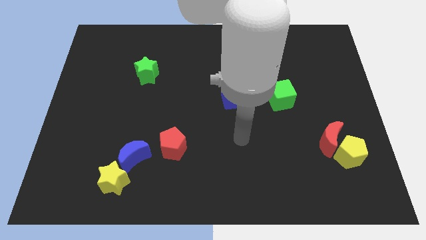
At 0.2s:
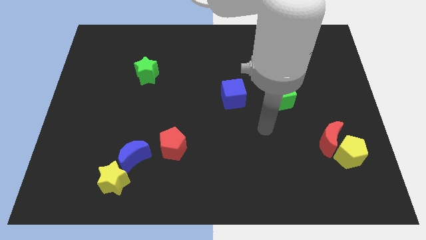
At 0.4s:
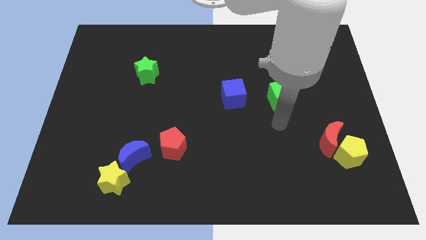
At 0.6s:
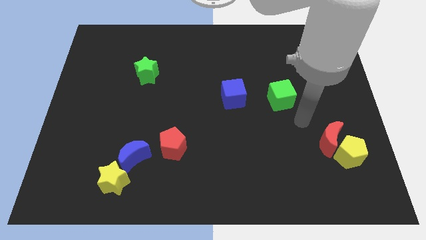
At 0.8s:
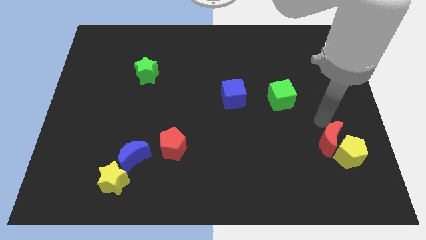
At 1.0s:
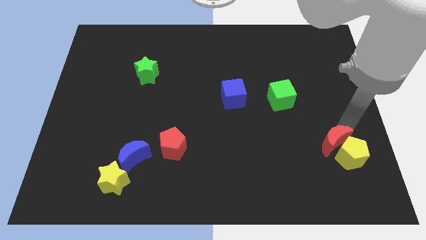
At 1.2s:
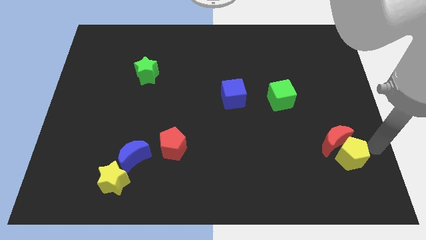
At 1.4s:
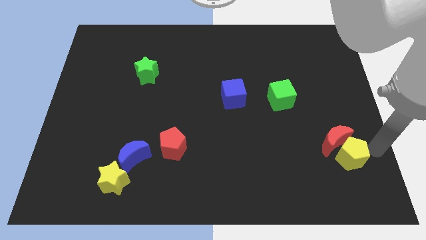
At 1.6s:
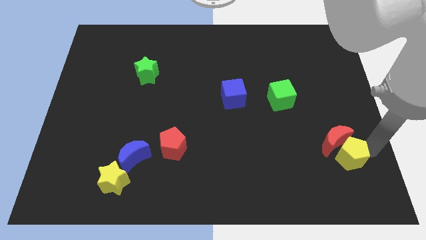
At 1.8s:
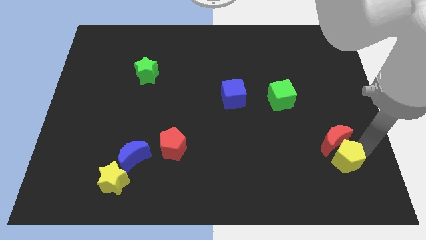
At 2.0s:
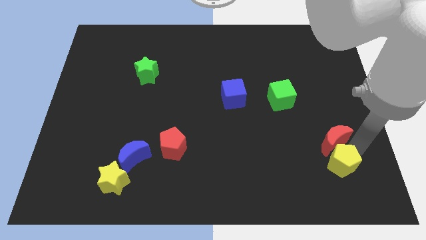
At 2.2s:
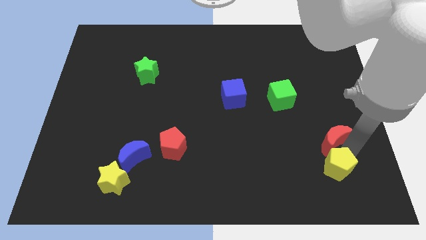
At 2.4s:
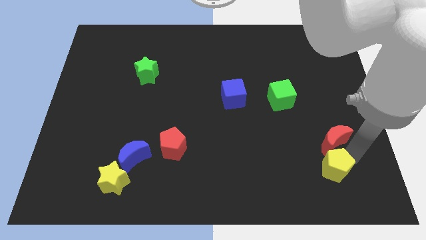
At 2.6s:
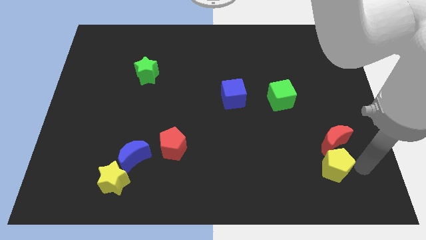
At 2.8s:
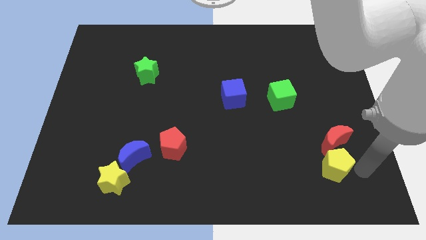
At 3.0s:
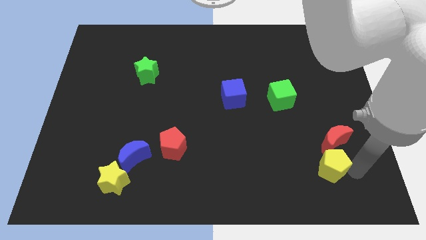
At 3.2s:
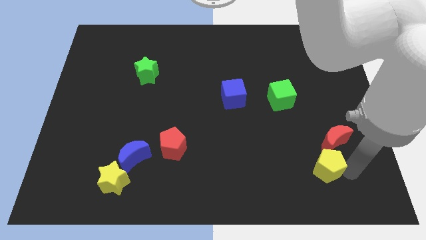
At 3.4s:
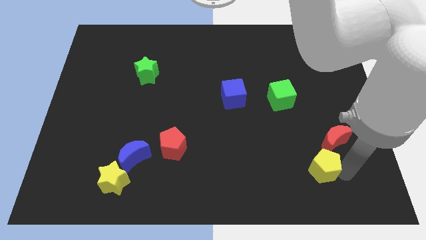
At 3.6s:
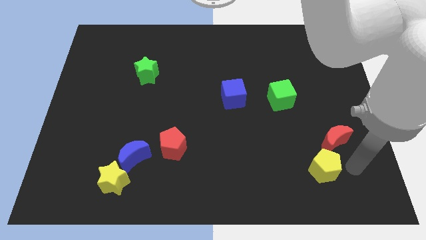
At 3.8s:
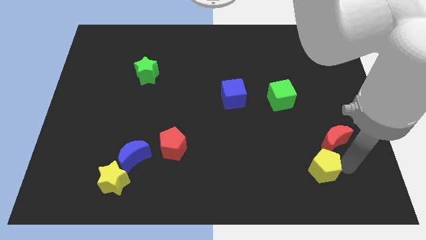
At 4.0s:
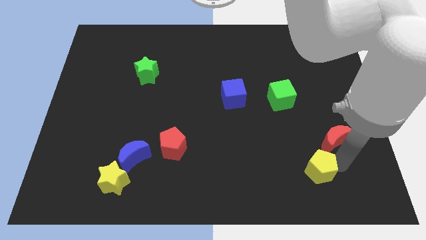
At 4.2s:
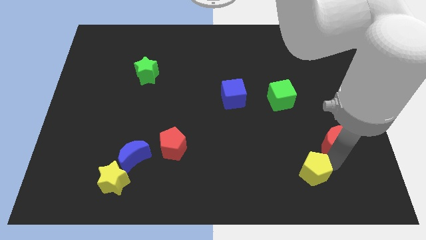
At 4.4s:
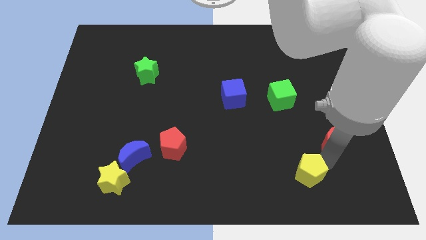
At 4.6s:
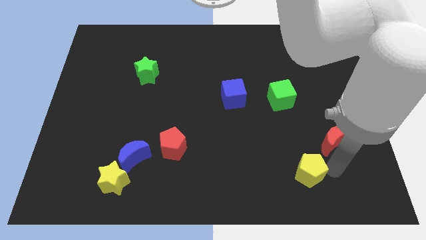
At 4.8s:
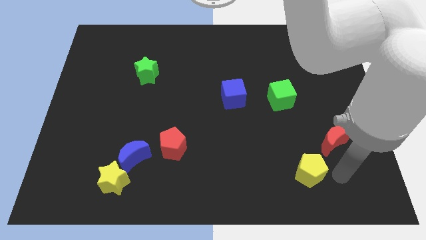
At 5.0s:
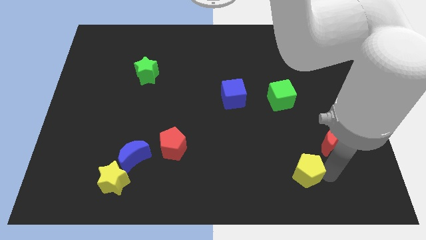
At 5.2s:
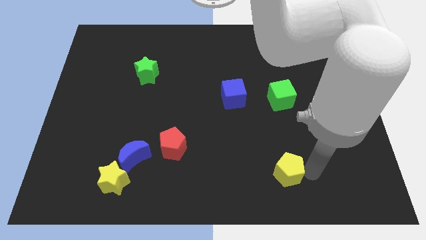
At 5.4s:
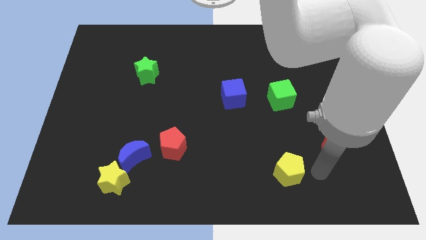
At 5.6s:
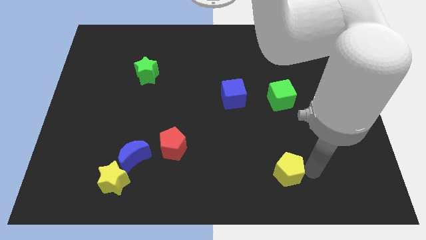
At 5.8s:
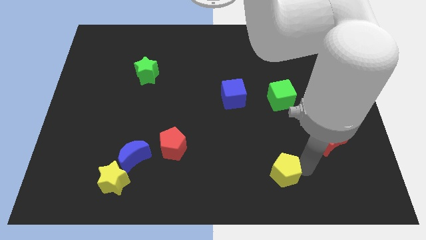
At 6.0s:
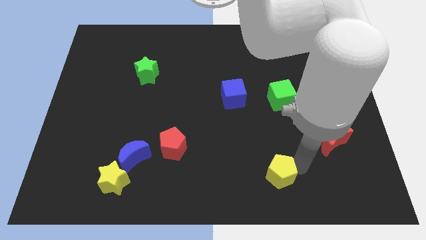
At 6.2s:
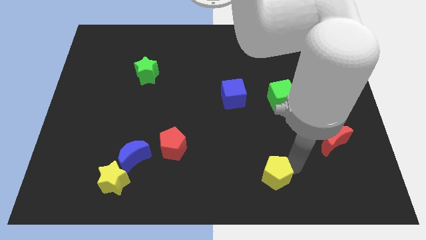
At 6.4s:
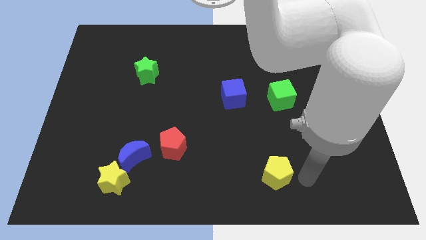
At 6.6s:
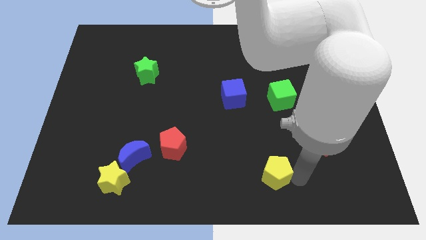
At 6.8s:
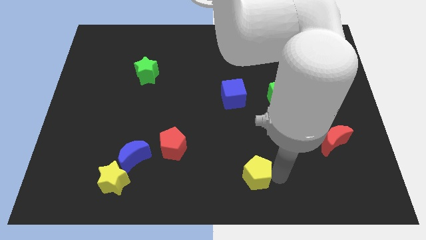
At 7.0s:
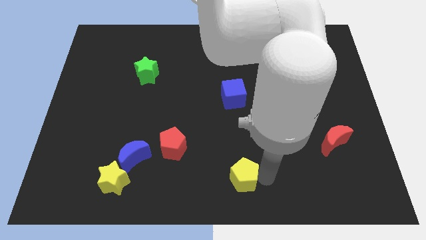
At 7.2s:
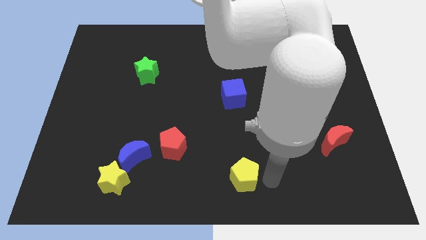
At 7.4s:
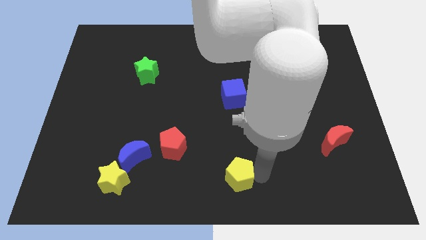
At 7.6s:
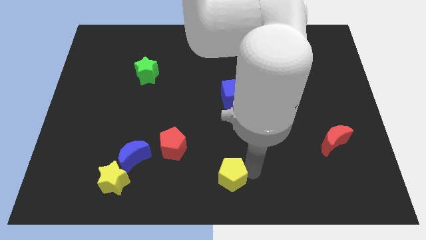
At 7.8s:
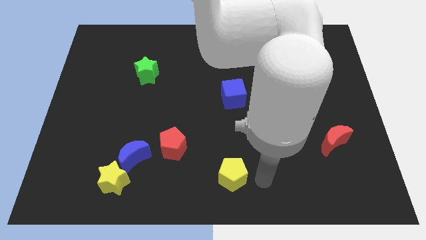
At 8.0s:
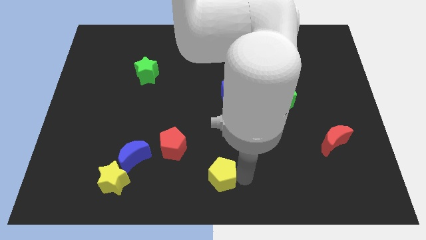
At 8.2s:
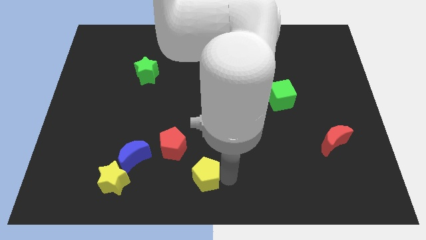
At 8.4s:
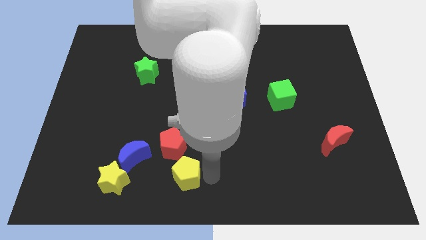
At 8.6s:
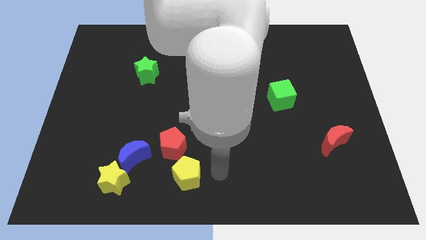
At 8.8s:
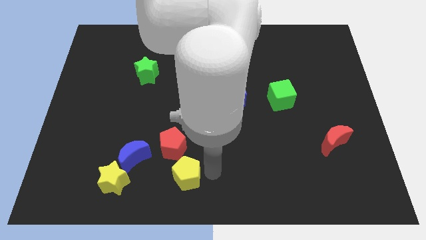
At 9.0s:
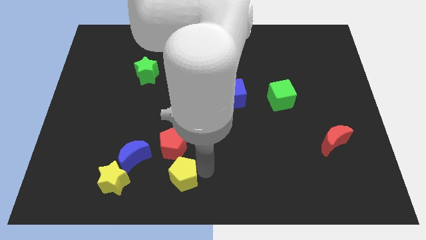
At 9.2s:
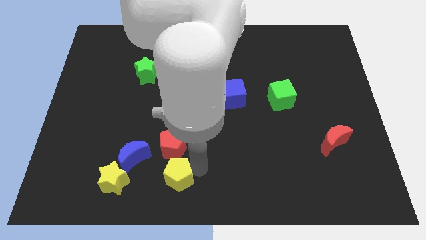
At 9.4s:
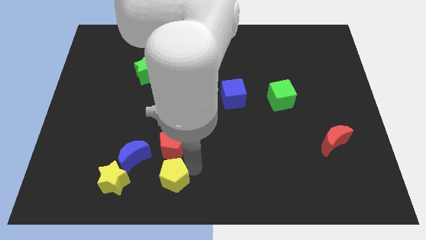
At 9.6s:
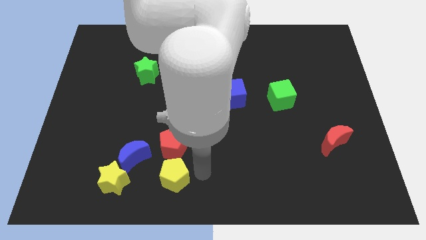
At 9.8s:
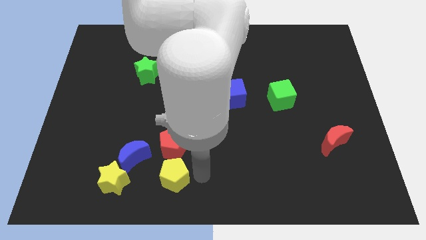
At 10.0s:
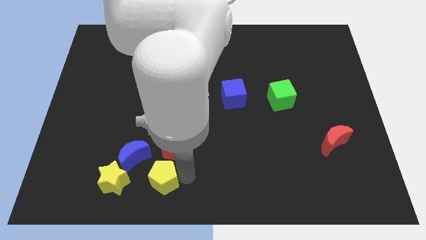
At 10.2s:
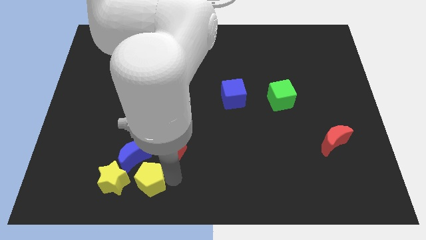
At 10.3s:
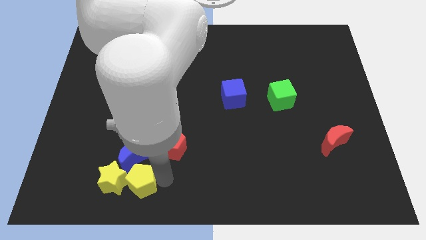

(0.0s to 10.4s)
slide the yellow pentagon next to the yellow star

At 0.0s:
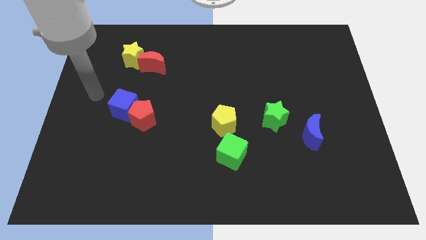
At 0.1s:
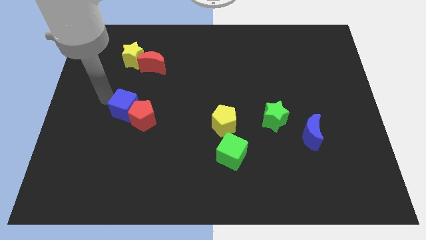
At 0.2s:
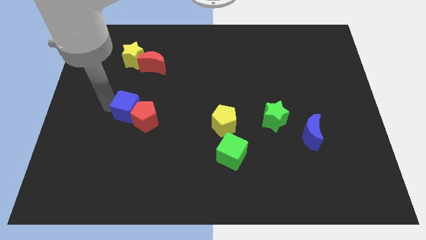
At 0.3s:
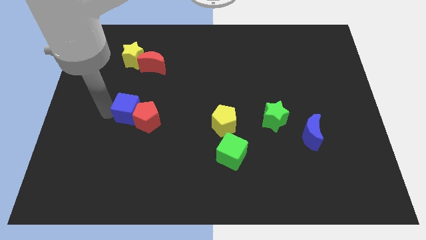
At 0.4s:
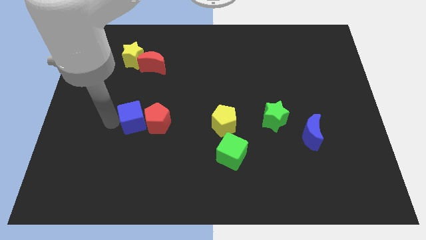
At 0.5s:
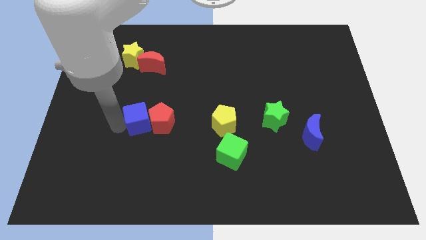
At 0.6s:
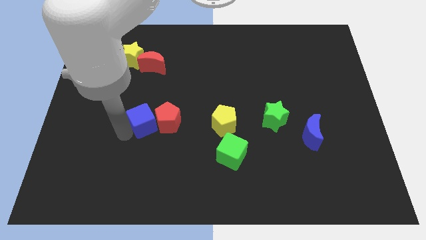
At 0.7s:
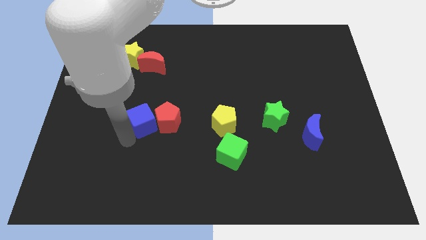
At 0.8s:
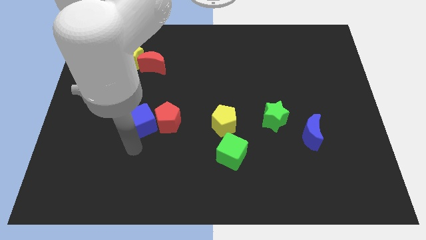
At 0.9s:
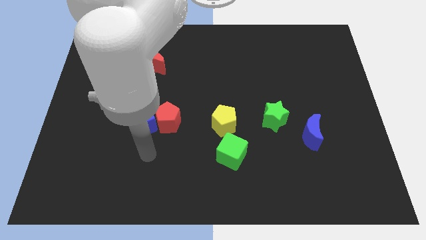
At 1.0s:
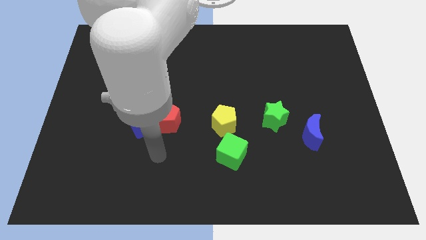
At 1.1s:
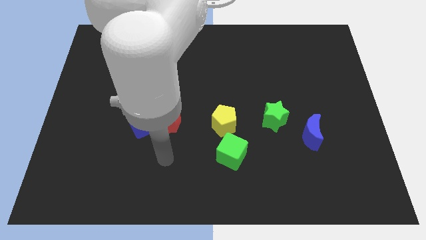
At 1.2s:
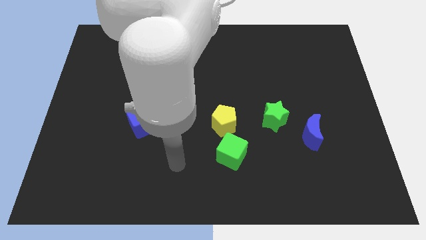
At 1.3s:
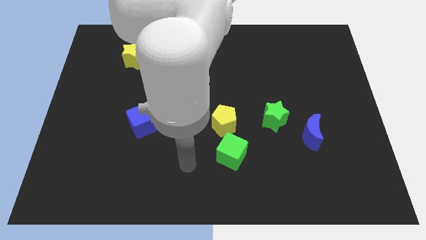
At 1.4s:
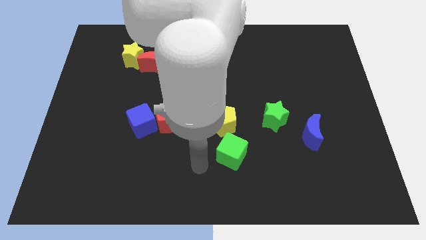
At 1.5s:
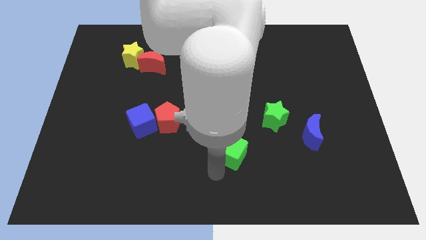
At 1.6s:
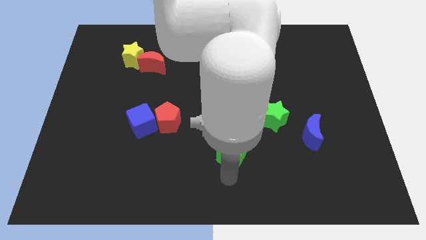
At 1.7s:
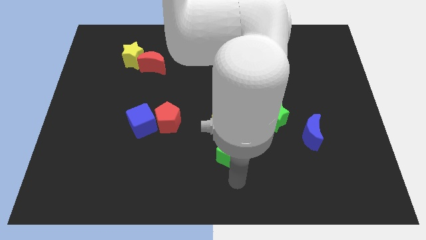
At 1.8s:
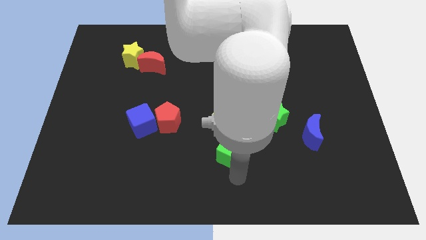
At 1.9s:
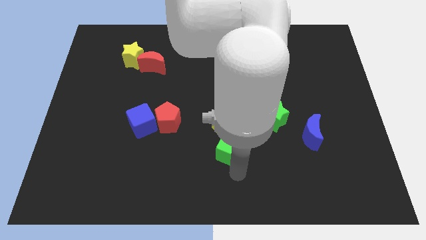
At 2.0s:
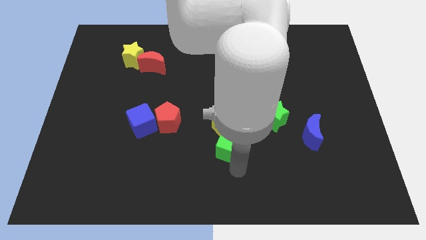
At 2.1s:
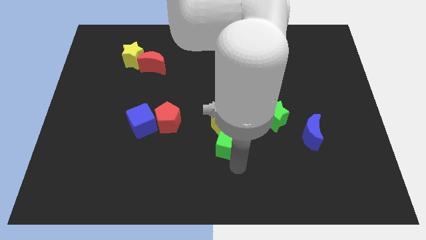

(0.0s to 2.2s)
move the green cube towards the yellow pentagon
